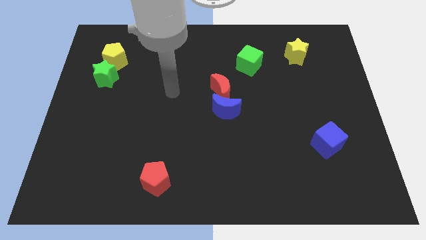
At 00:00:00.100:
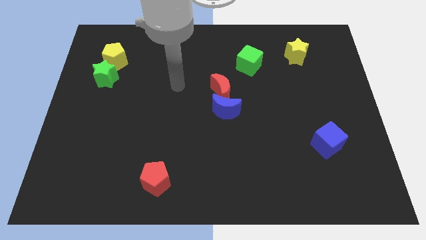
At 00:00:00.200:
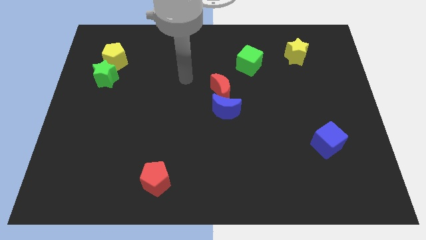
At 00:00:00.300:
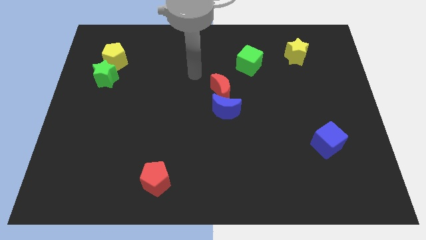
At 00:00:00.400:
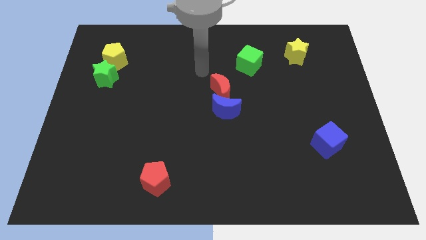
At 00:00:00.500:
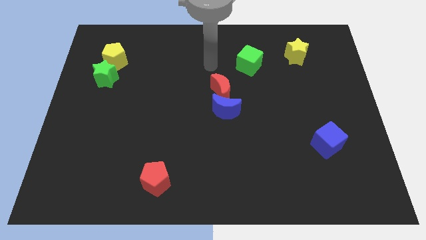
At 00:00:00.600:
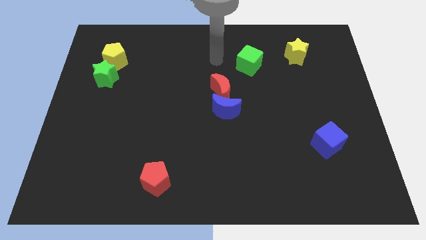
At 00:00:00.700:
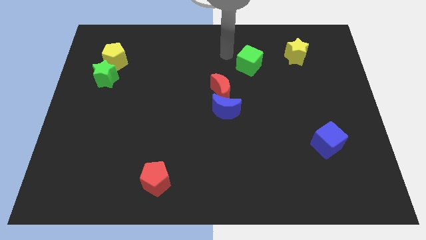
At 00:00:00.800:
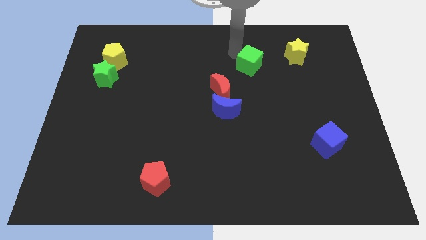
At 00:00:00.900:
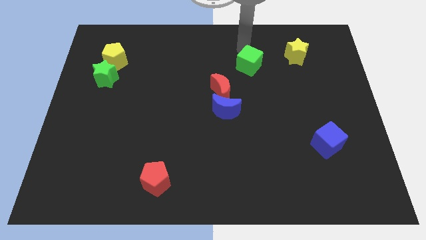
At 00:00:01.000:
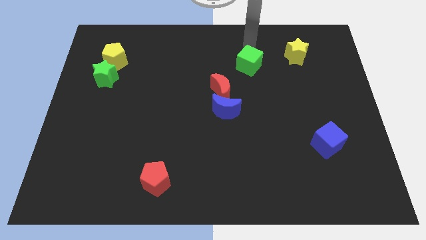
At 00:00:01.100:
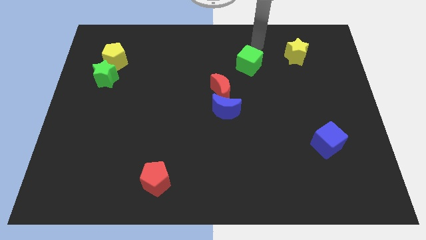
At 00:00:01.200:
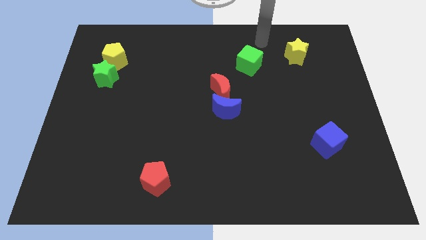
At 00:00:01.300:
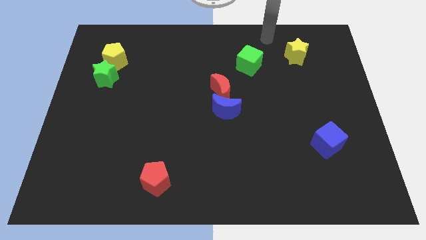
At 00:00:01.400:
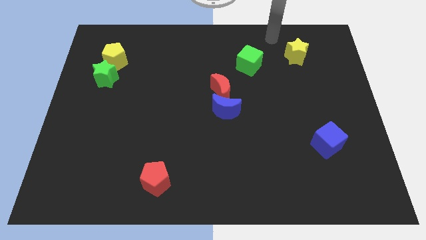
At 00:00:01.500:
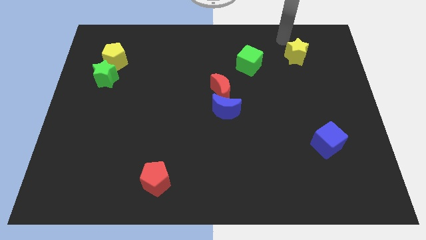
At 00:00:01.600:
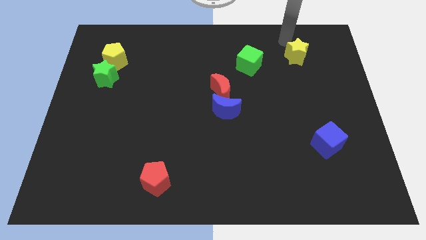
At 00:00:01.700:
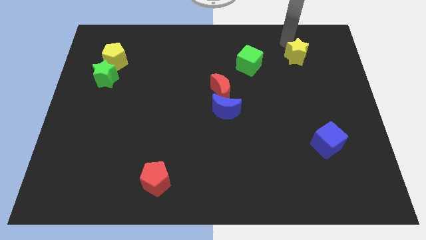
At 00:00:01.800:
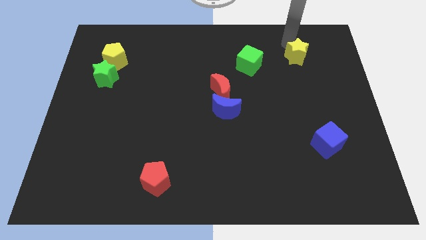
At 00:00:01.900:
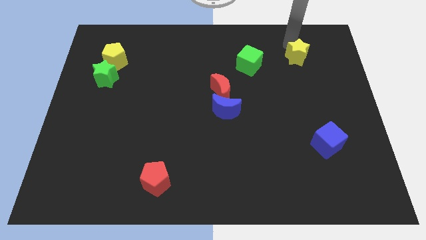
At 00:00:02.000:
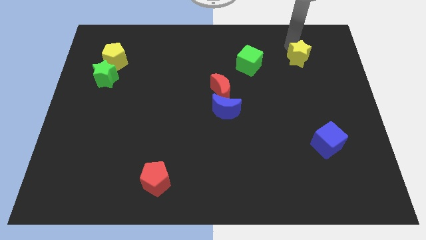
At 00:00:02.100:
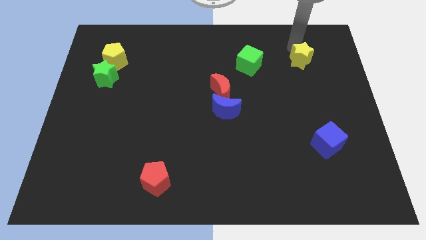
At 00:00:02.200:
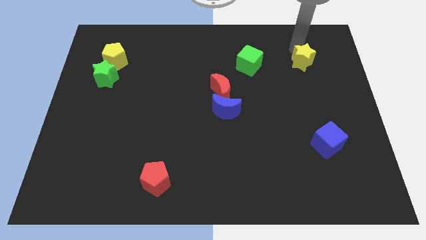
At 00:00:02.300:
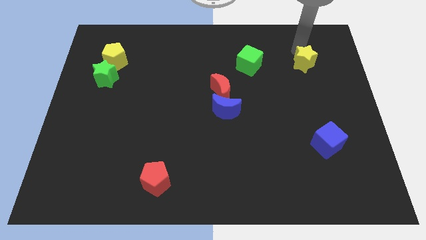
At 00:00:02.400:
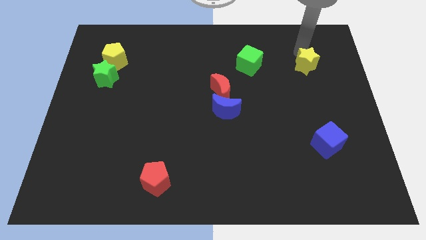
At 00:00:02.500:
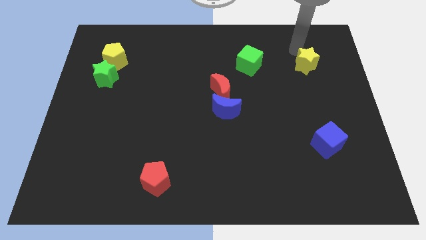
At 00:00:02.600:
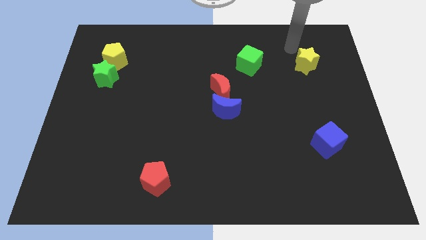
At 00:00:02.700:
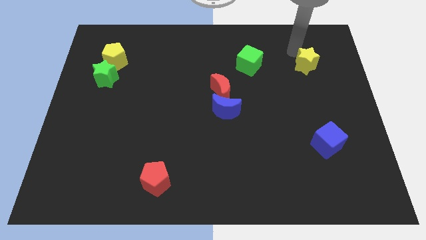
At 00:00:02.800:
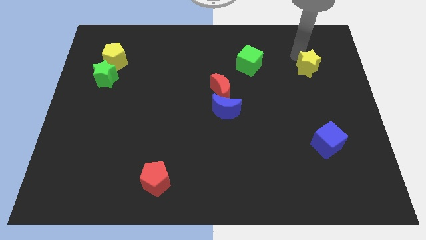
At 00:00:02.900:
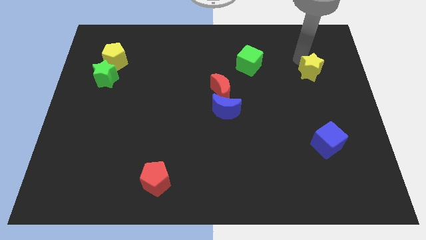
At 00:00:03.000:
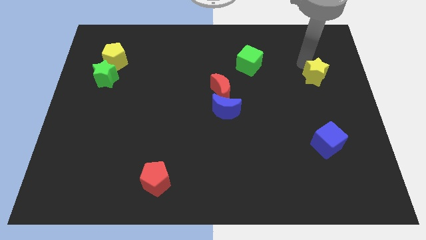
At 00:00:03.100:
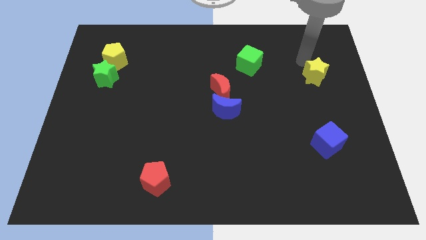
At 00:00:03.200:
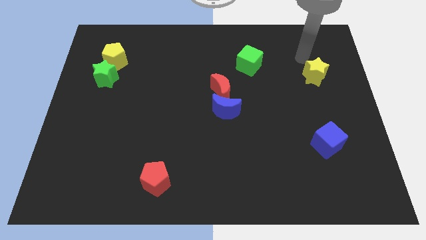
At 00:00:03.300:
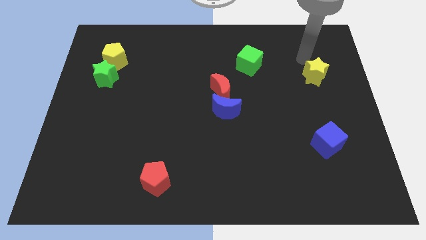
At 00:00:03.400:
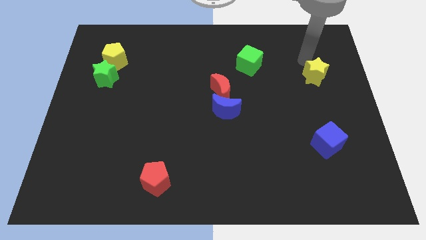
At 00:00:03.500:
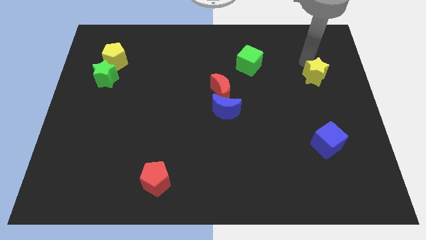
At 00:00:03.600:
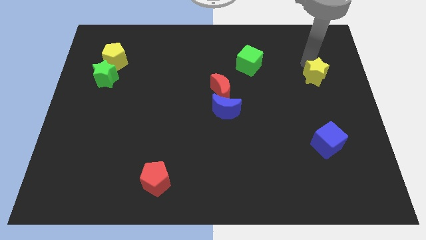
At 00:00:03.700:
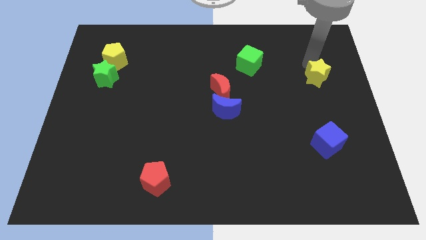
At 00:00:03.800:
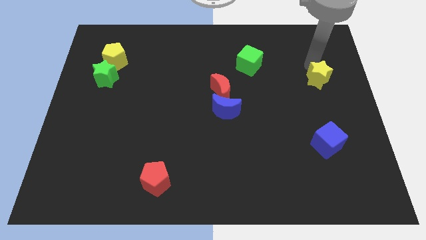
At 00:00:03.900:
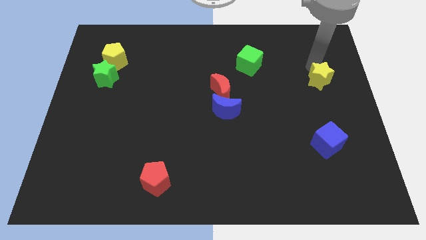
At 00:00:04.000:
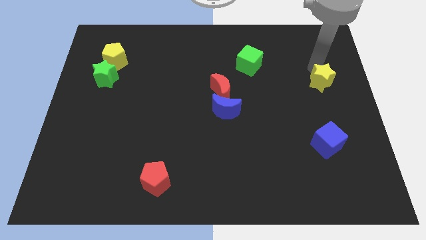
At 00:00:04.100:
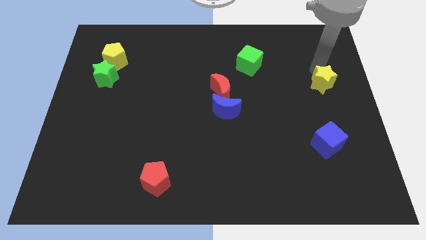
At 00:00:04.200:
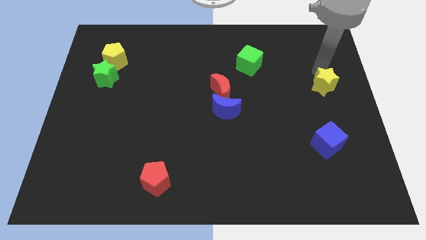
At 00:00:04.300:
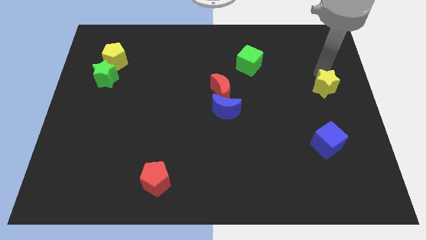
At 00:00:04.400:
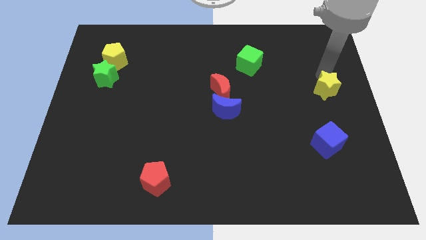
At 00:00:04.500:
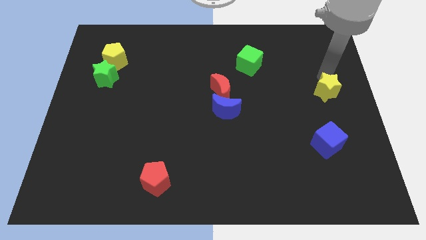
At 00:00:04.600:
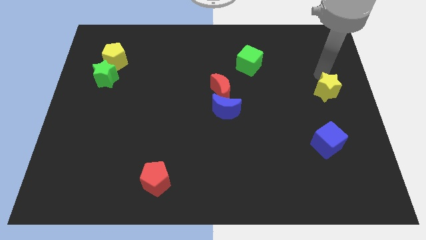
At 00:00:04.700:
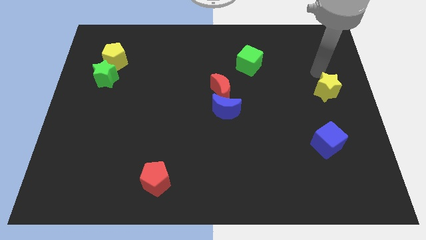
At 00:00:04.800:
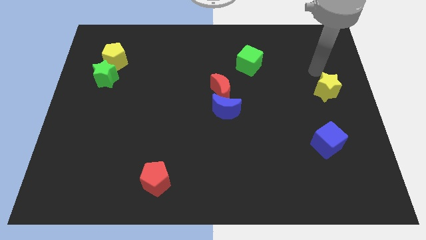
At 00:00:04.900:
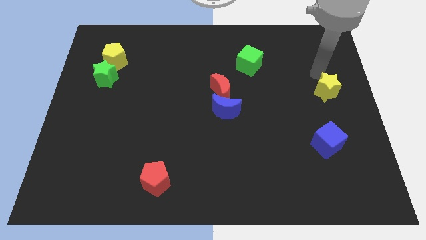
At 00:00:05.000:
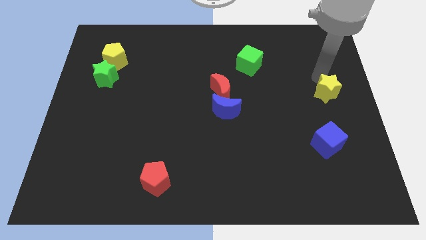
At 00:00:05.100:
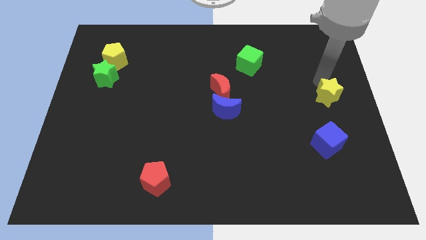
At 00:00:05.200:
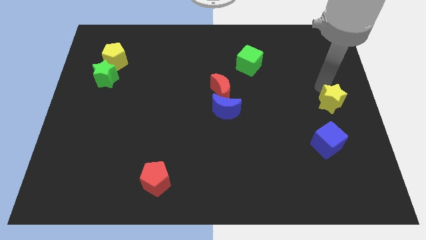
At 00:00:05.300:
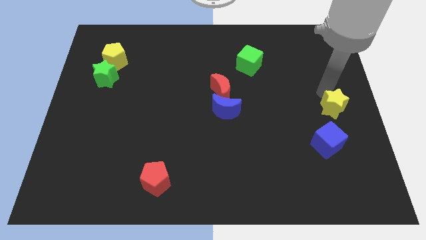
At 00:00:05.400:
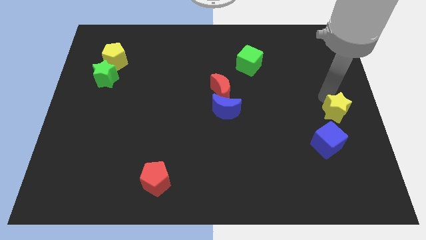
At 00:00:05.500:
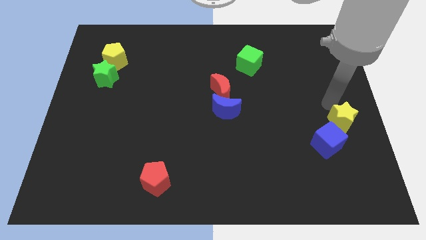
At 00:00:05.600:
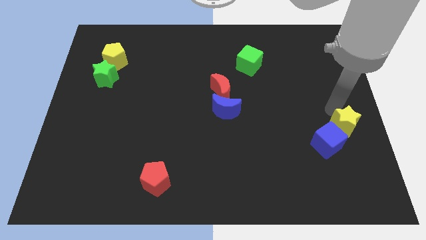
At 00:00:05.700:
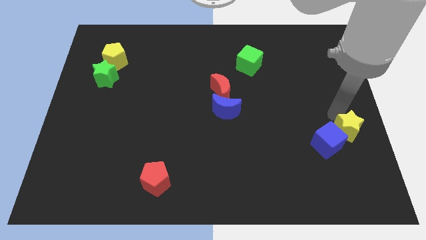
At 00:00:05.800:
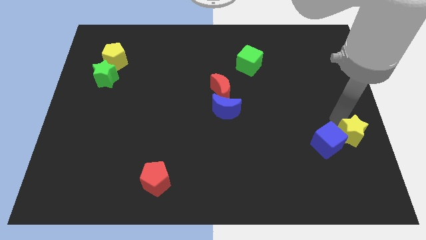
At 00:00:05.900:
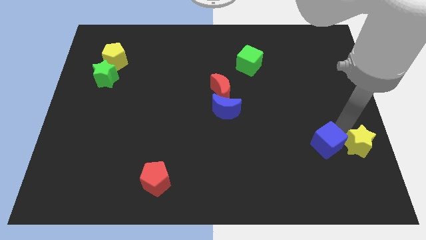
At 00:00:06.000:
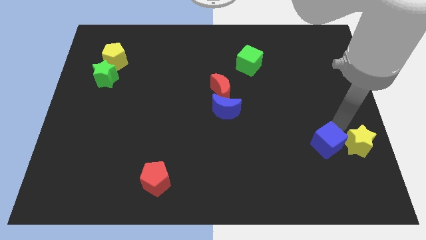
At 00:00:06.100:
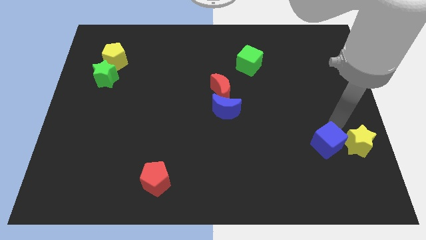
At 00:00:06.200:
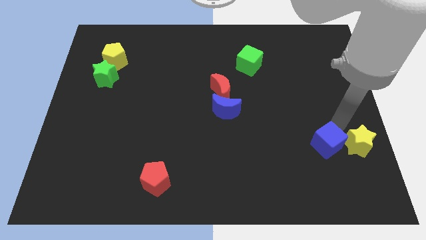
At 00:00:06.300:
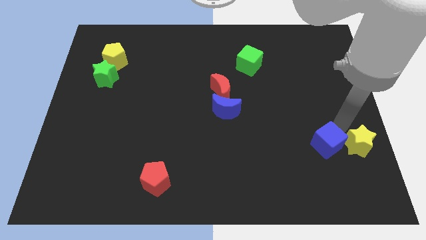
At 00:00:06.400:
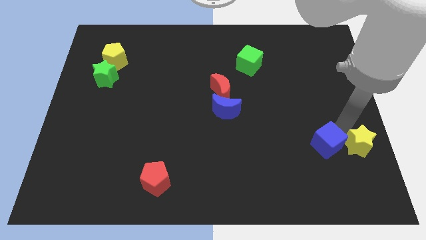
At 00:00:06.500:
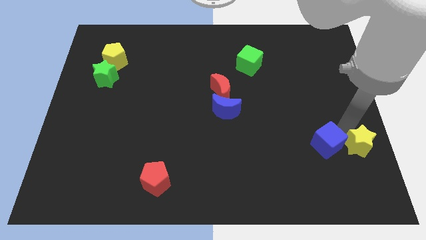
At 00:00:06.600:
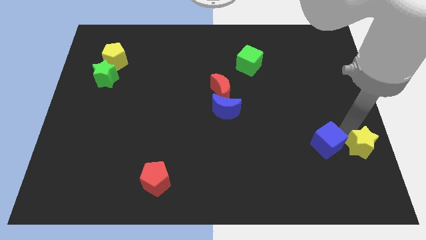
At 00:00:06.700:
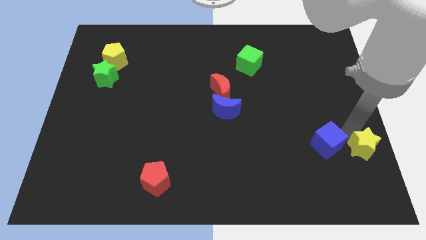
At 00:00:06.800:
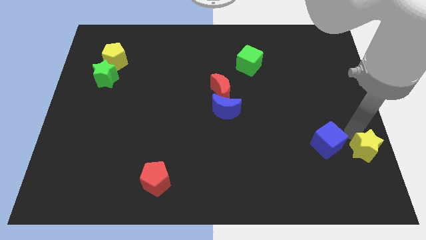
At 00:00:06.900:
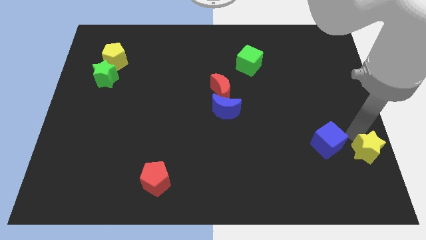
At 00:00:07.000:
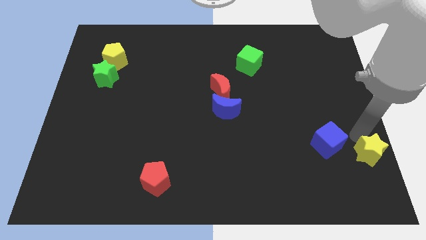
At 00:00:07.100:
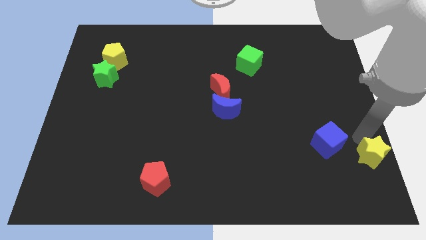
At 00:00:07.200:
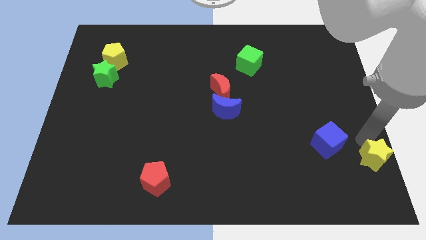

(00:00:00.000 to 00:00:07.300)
slide the yellow star to the bottom right corner
